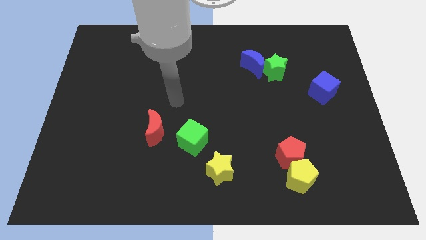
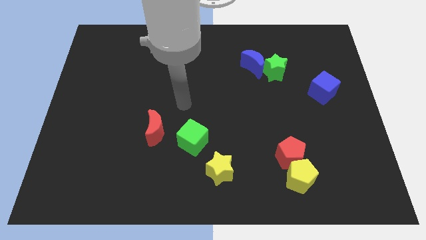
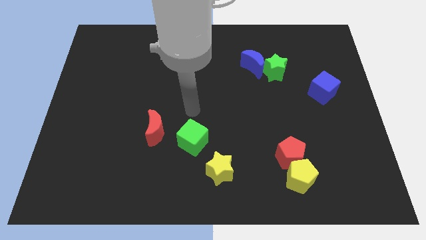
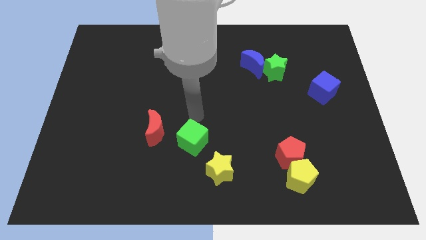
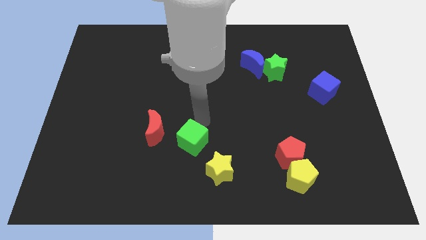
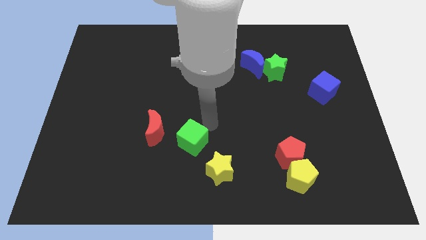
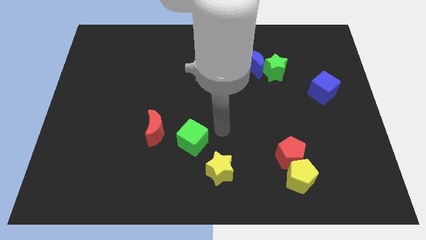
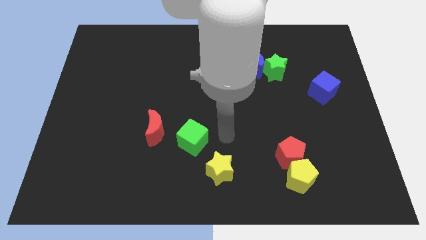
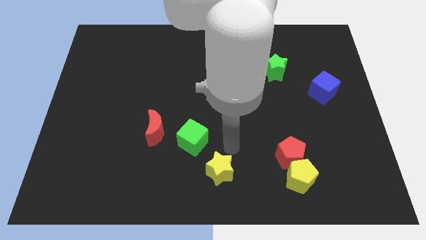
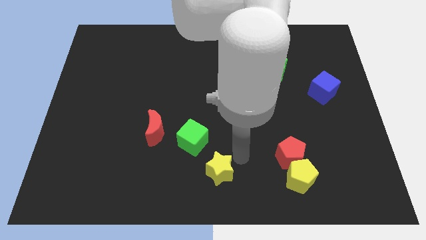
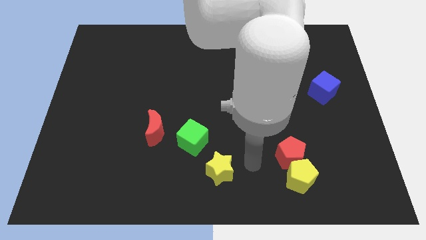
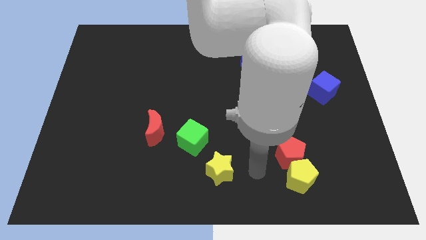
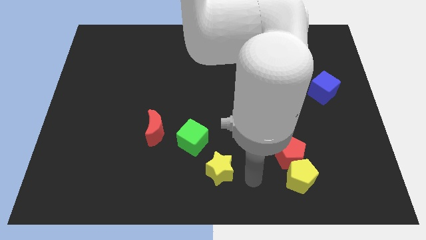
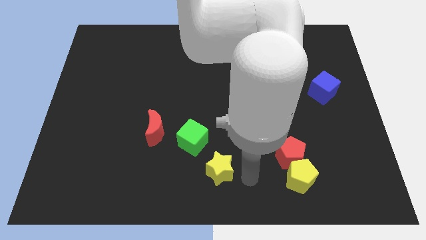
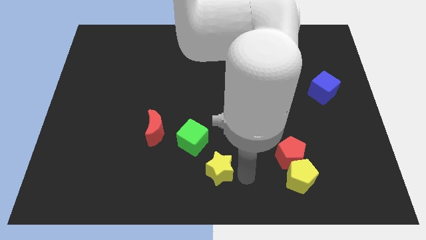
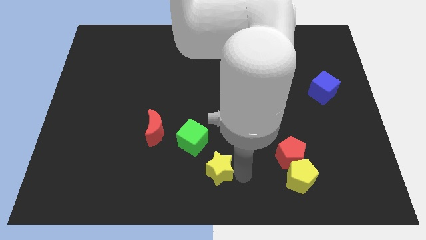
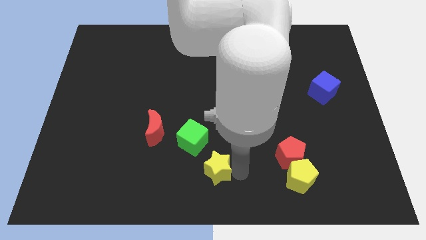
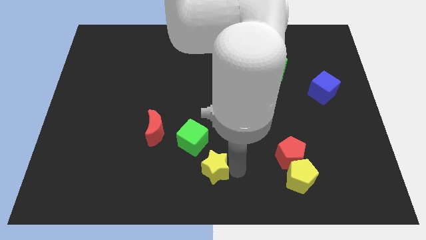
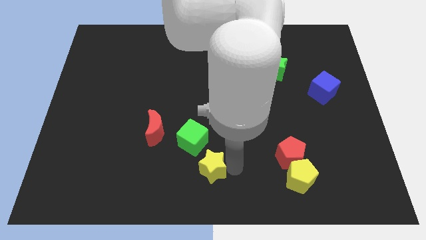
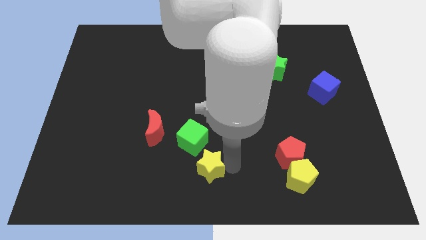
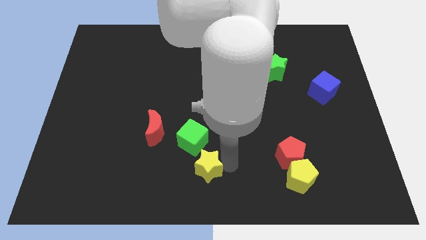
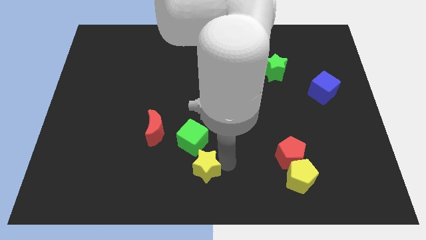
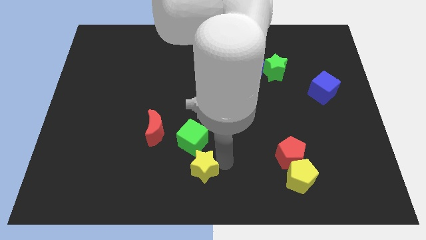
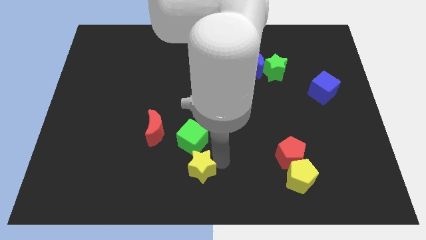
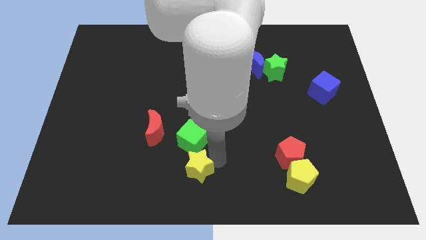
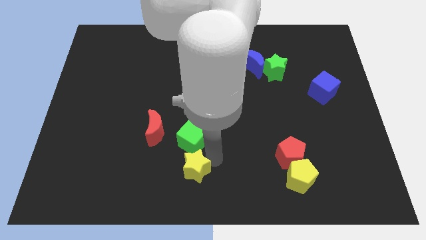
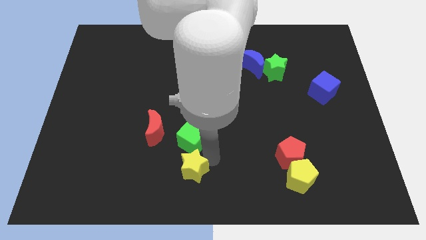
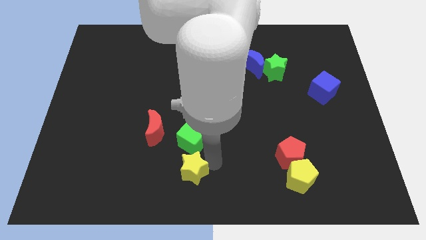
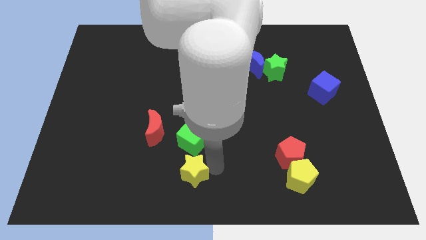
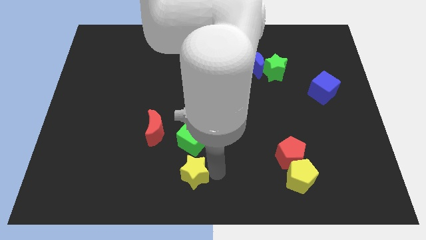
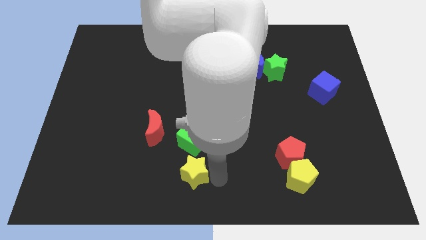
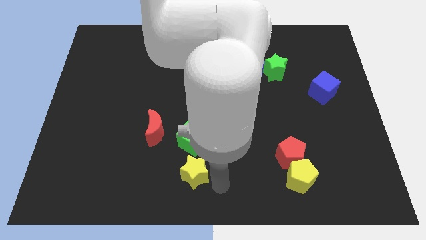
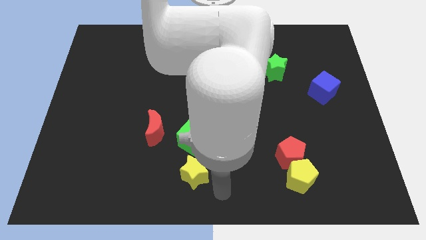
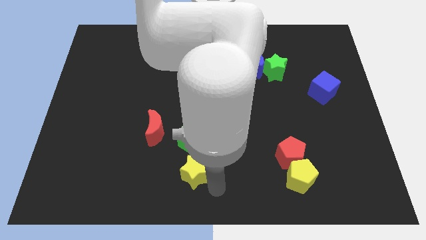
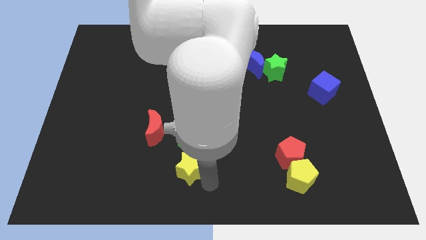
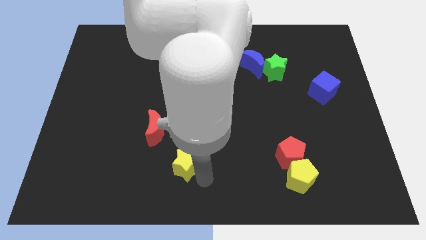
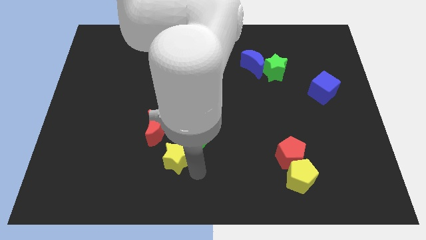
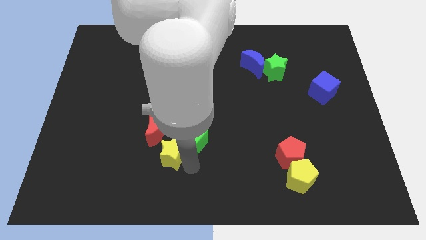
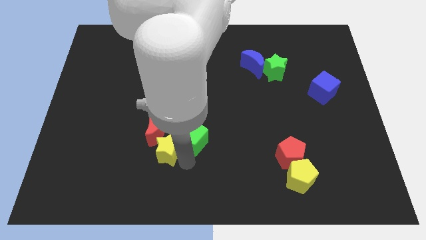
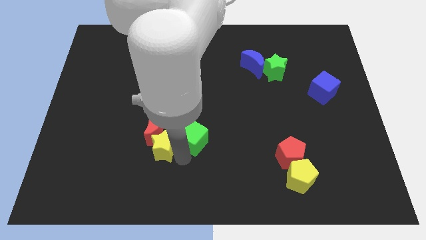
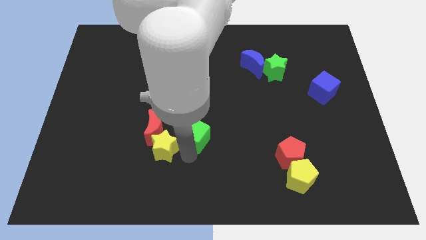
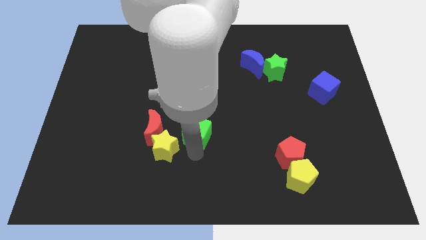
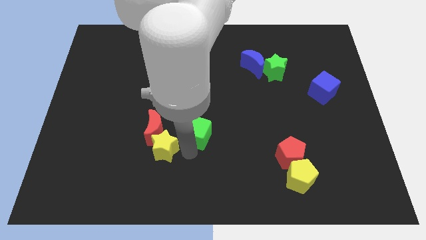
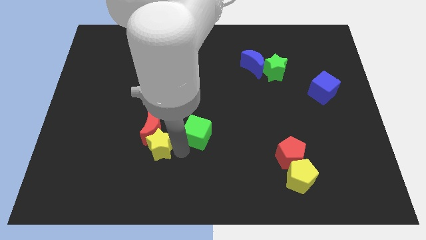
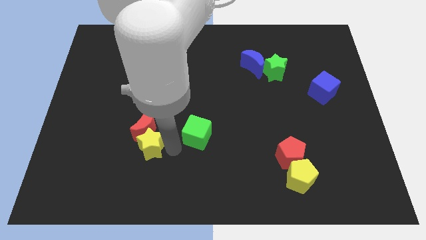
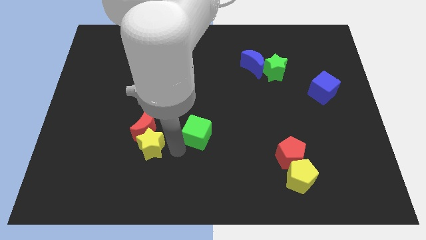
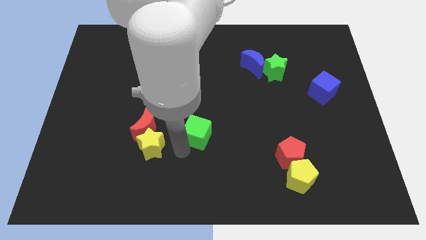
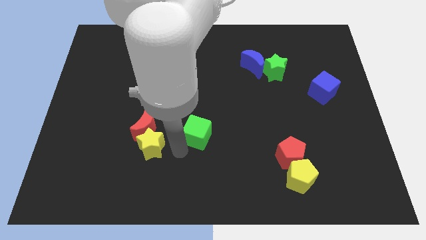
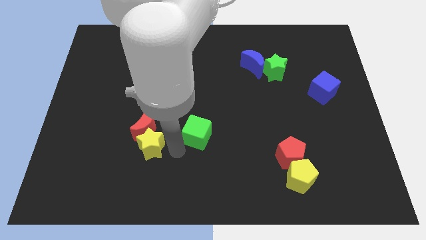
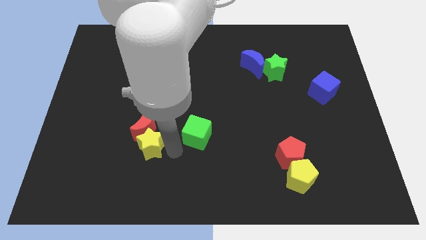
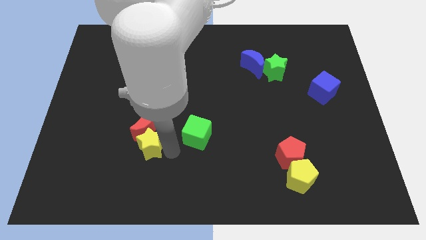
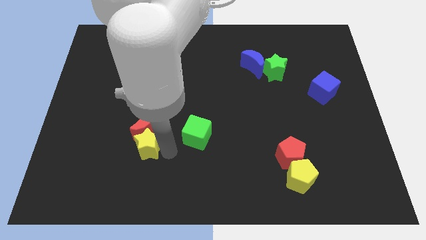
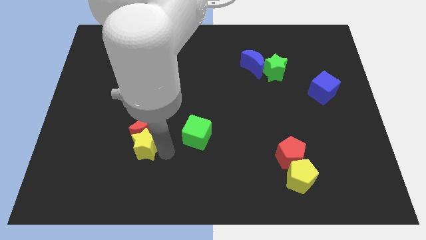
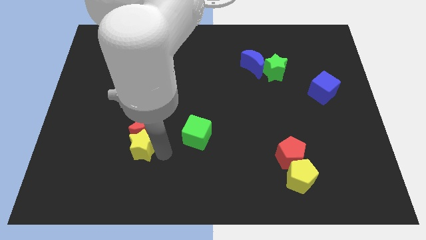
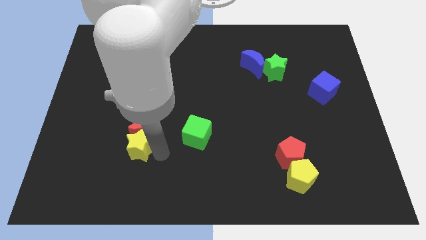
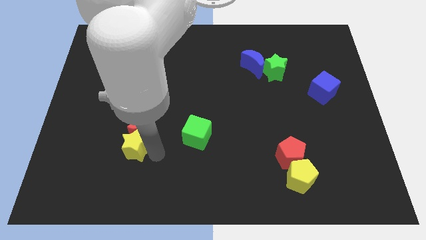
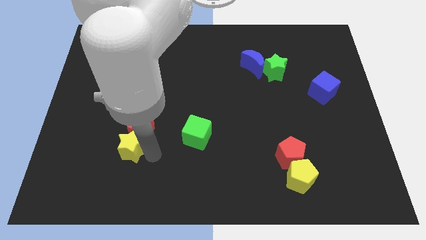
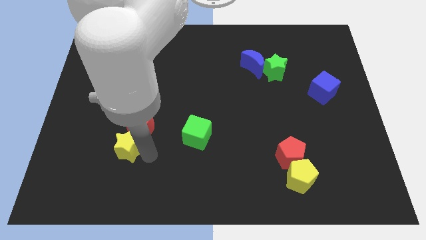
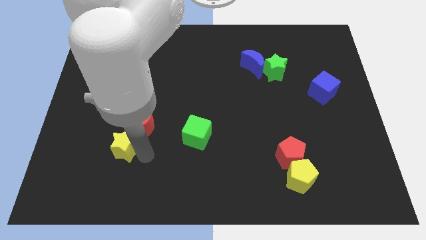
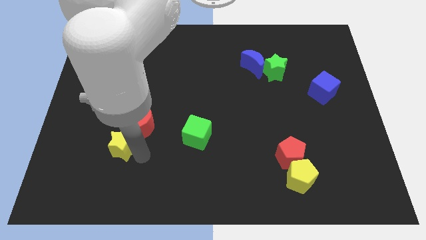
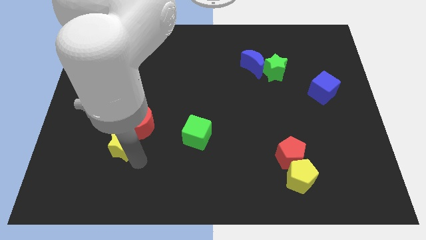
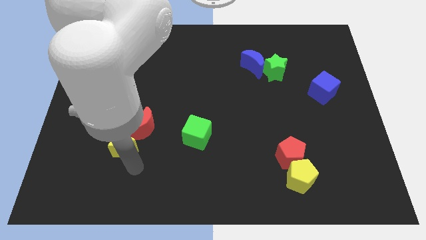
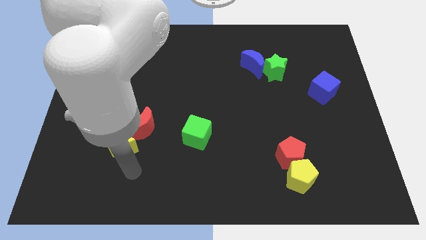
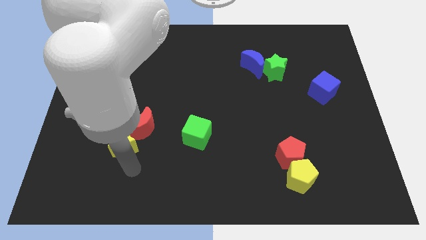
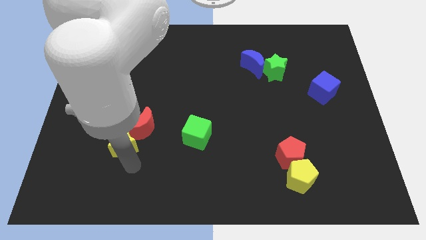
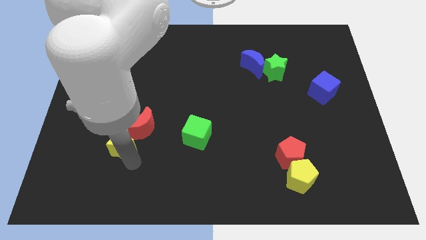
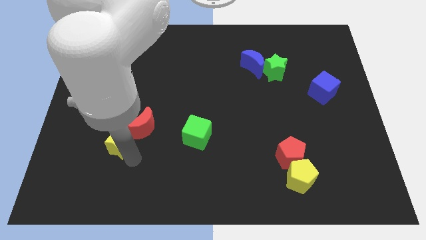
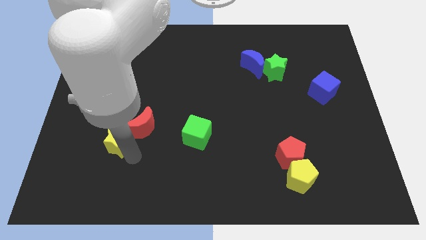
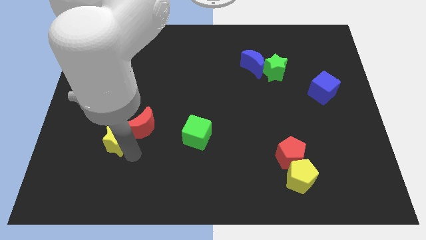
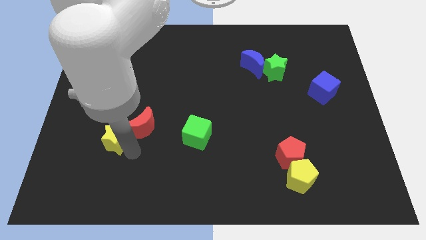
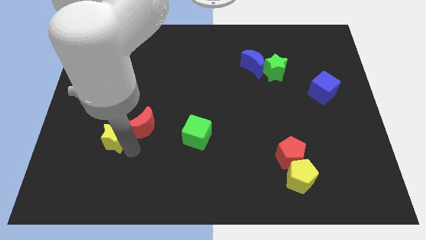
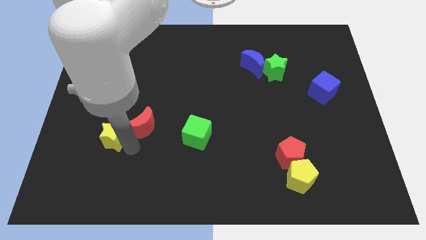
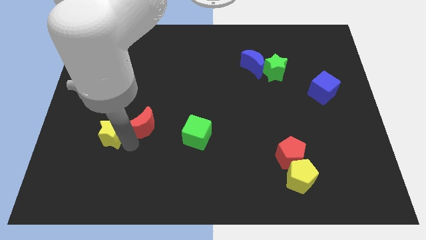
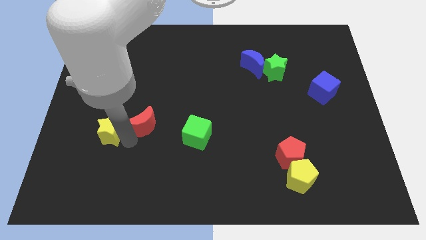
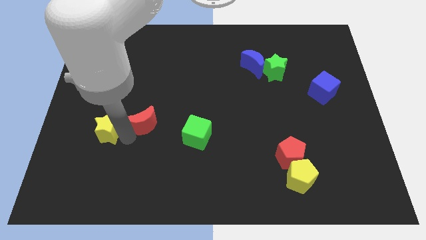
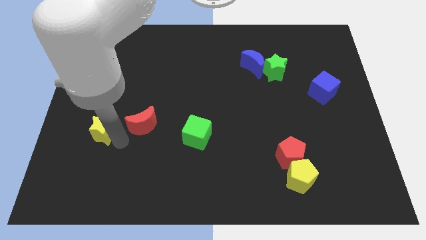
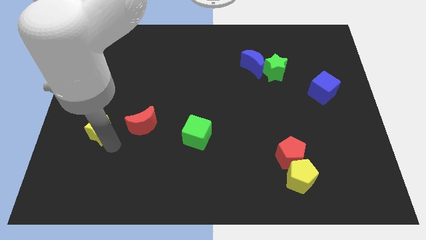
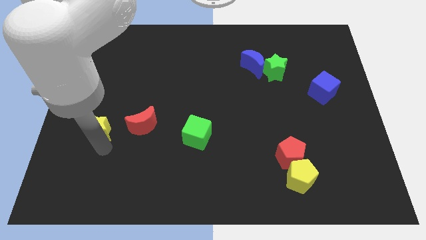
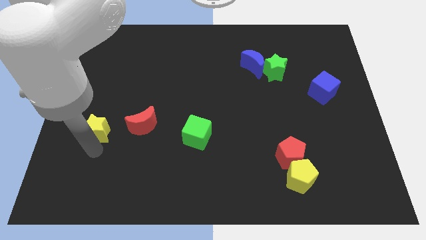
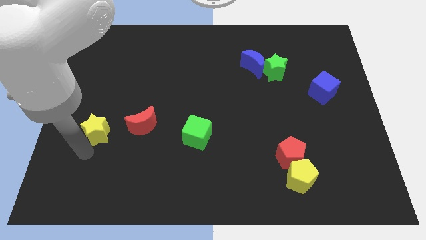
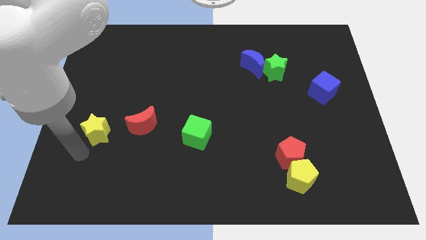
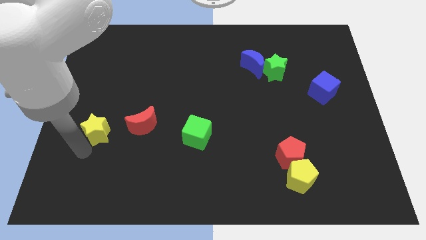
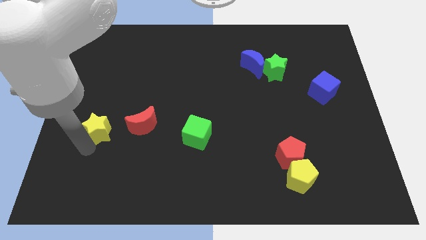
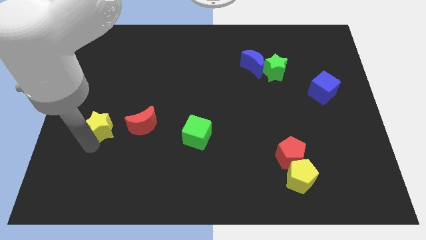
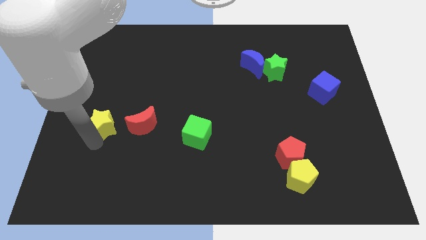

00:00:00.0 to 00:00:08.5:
slide the yellow star up and to the left
